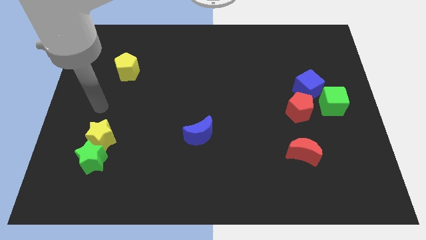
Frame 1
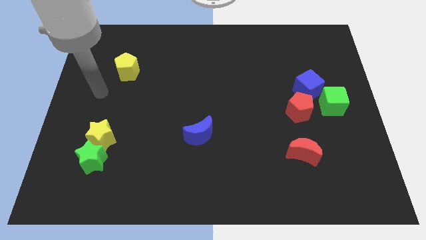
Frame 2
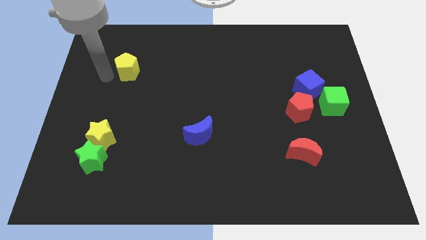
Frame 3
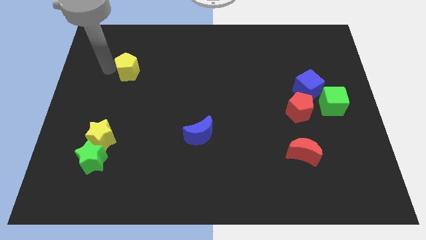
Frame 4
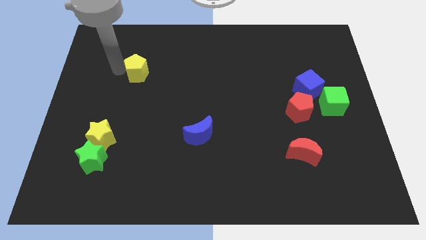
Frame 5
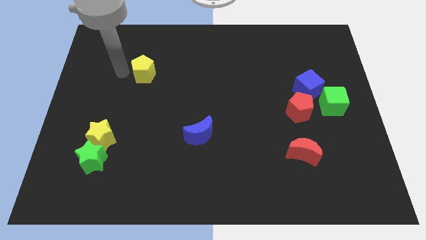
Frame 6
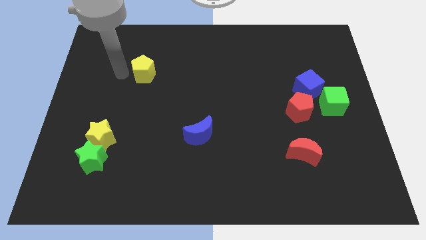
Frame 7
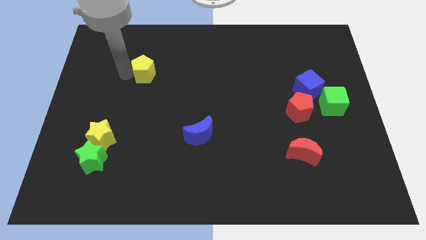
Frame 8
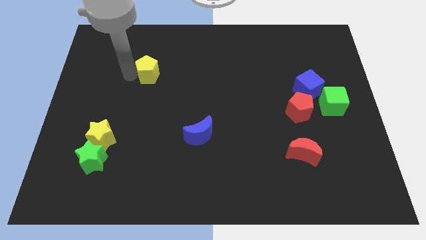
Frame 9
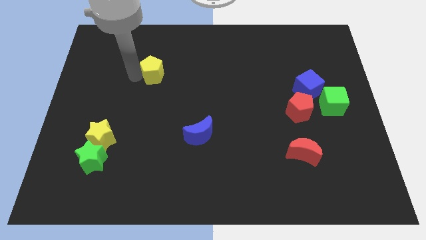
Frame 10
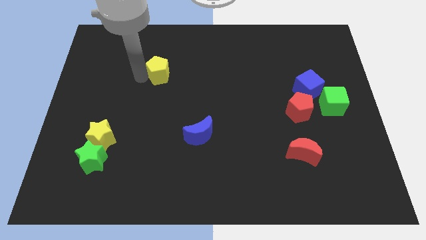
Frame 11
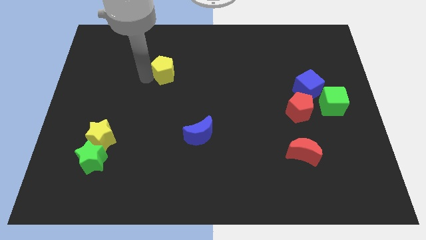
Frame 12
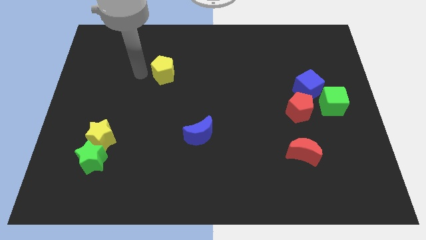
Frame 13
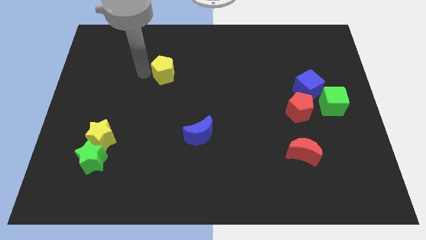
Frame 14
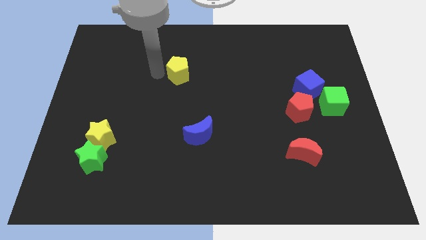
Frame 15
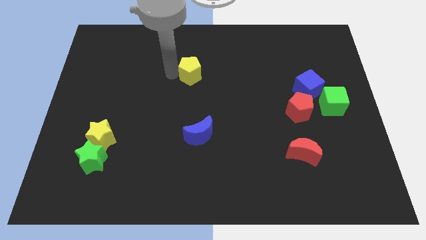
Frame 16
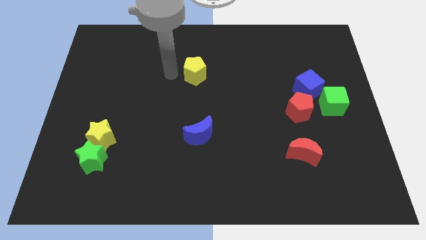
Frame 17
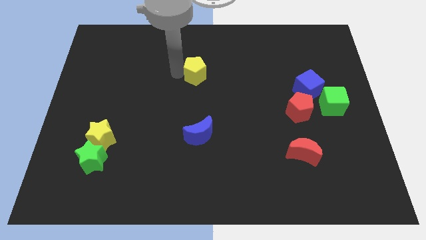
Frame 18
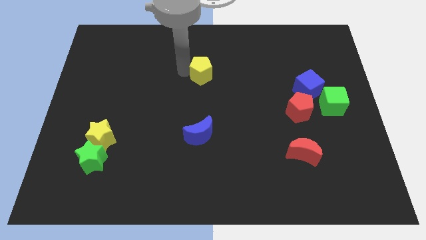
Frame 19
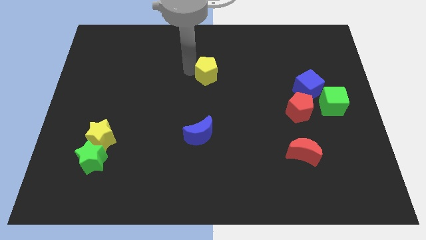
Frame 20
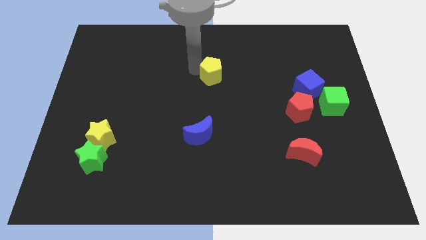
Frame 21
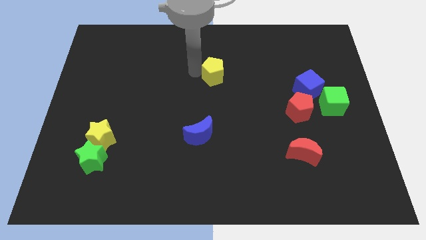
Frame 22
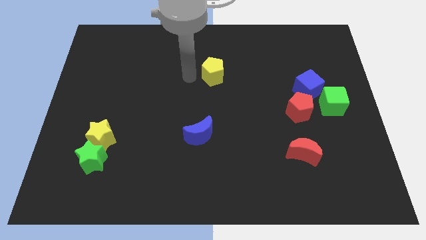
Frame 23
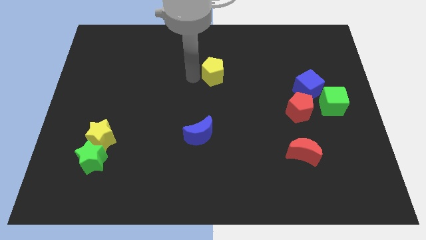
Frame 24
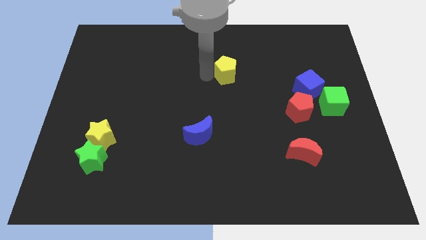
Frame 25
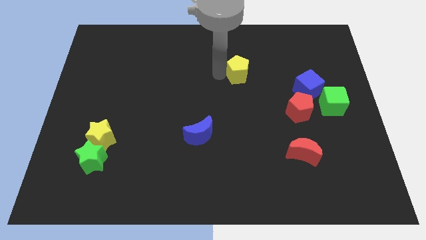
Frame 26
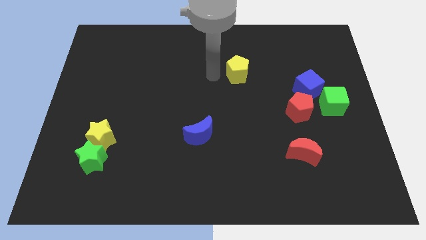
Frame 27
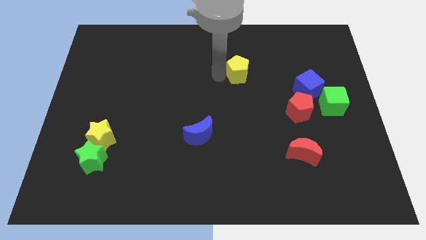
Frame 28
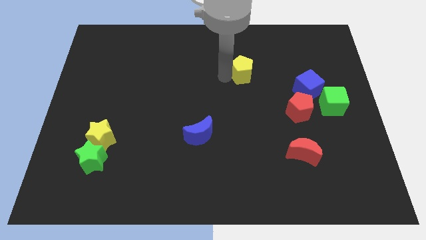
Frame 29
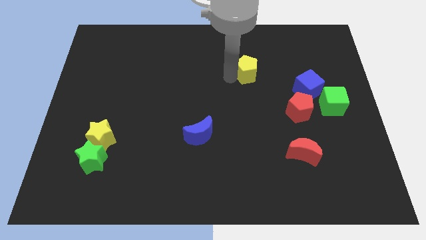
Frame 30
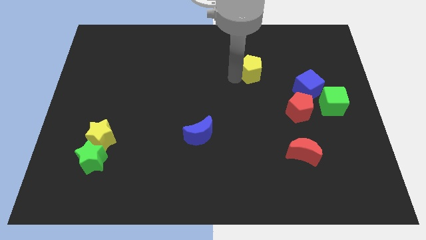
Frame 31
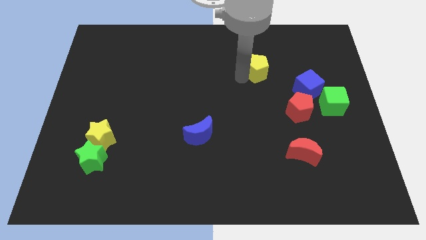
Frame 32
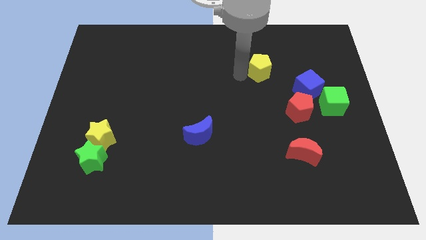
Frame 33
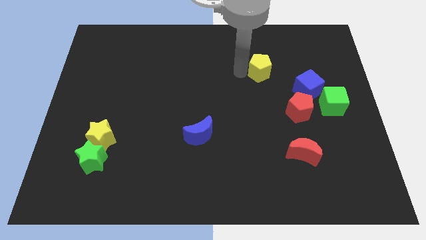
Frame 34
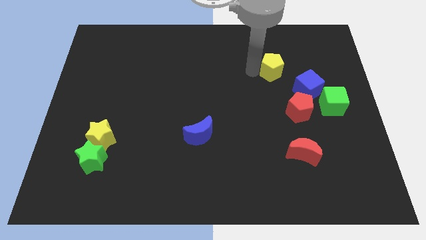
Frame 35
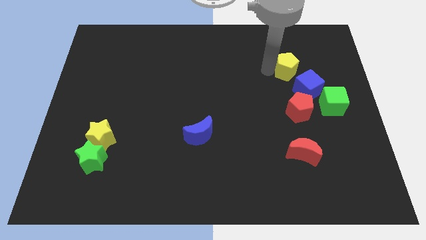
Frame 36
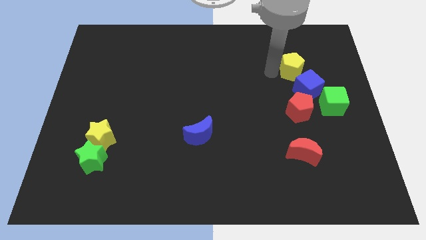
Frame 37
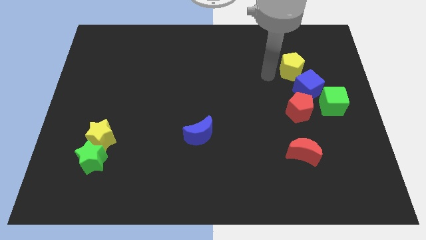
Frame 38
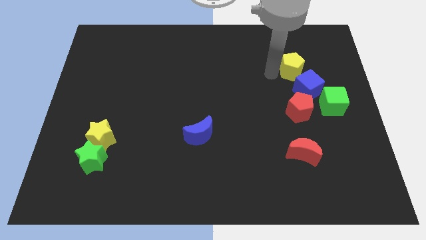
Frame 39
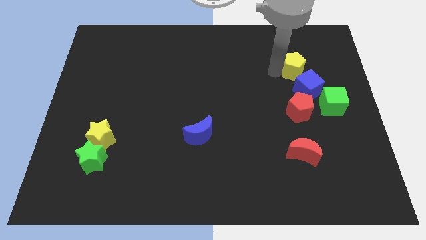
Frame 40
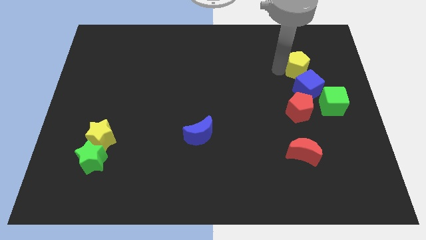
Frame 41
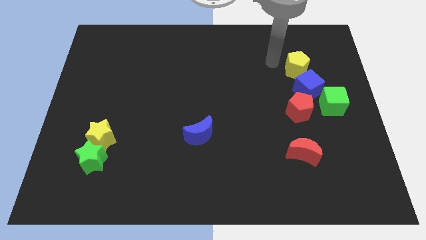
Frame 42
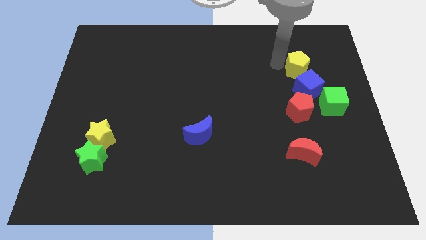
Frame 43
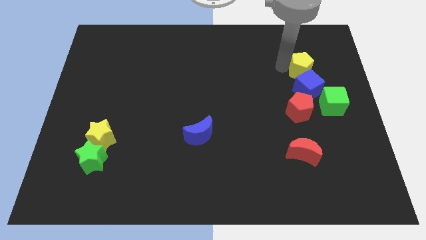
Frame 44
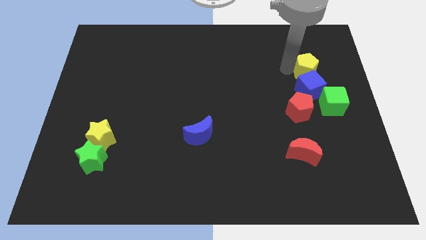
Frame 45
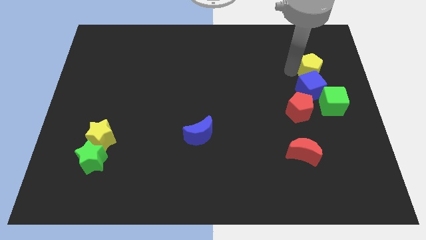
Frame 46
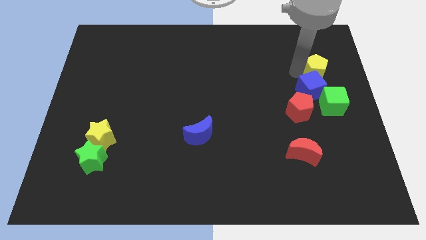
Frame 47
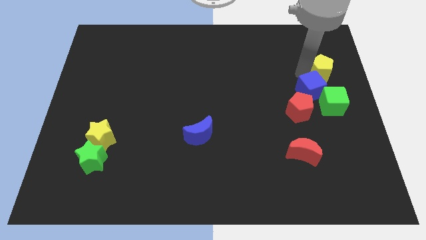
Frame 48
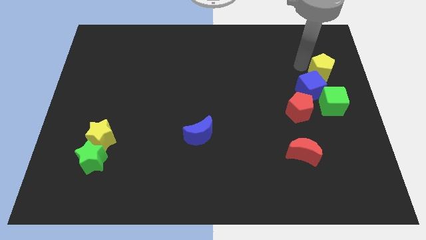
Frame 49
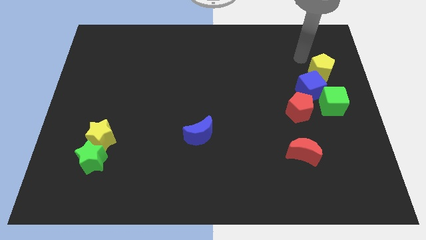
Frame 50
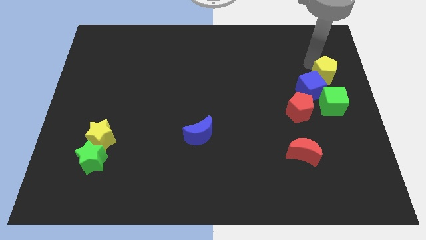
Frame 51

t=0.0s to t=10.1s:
move the yellow pentagon to the center right

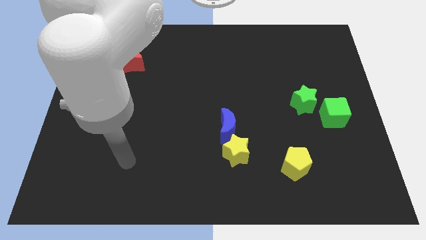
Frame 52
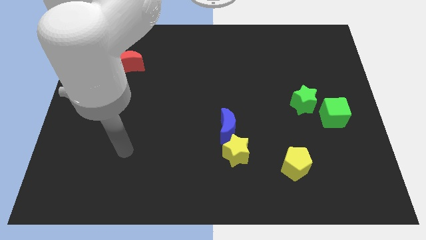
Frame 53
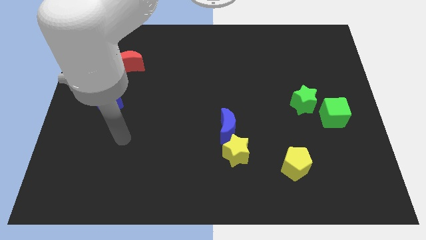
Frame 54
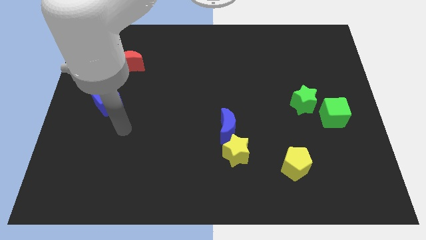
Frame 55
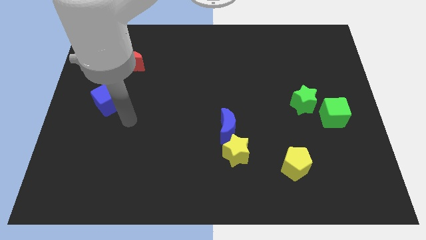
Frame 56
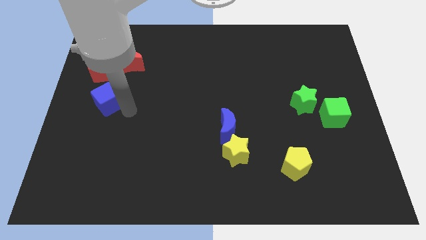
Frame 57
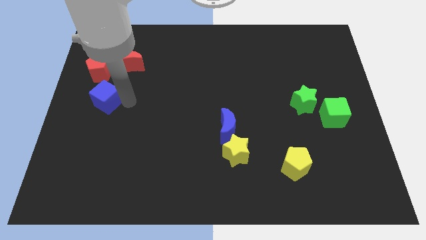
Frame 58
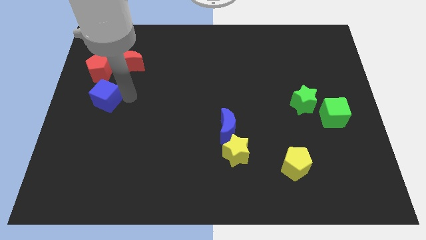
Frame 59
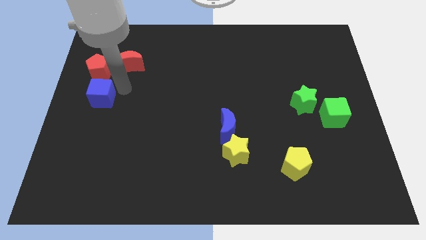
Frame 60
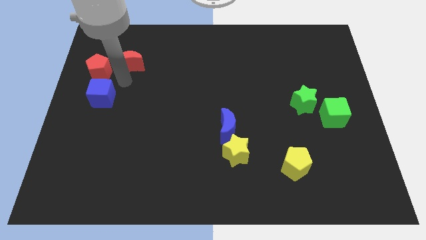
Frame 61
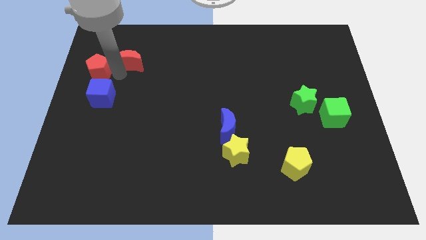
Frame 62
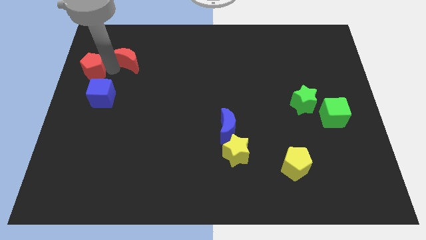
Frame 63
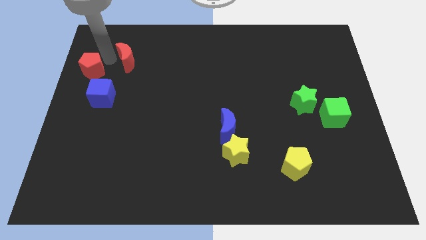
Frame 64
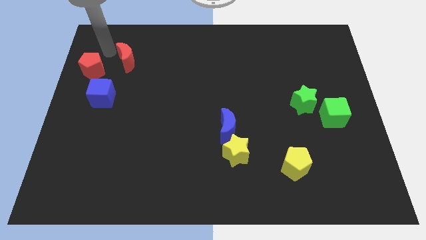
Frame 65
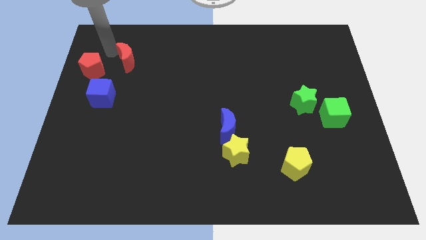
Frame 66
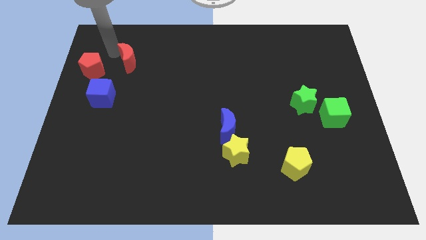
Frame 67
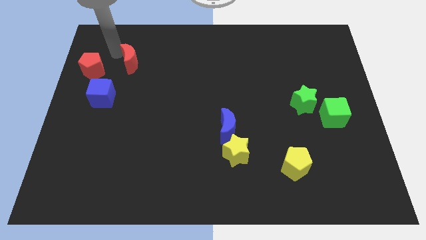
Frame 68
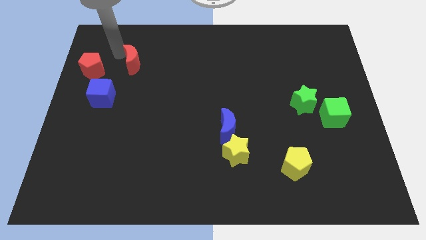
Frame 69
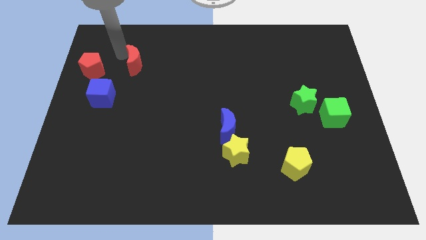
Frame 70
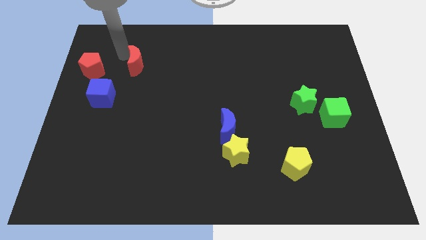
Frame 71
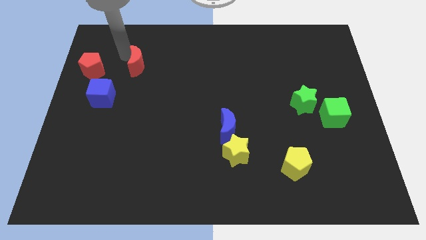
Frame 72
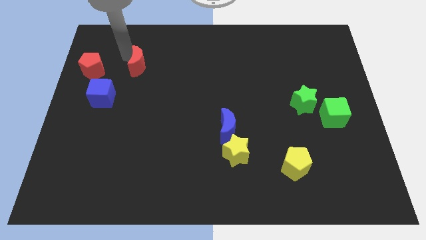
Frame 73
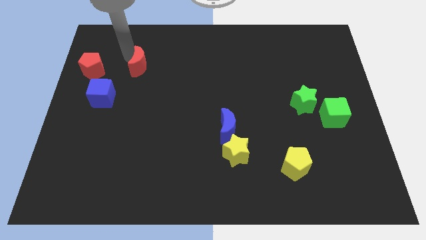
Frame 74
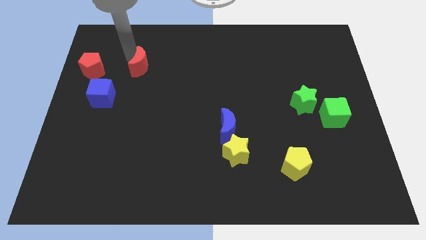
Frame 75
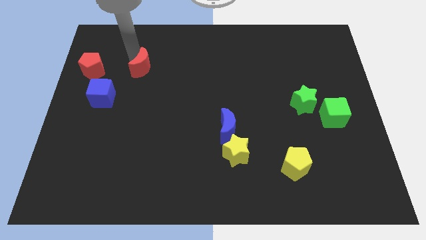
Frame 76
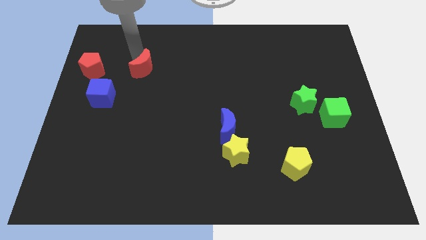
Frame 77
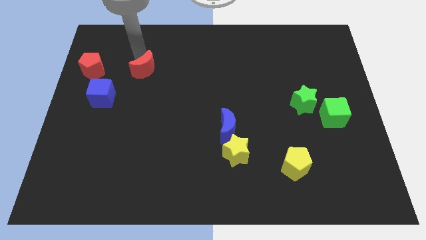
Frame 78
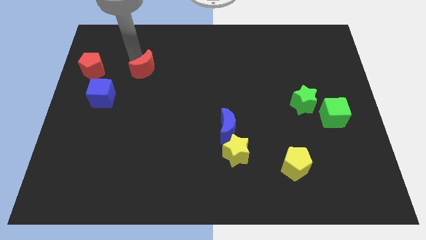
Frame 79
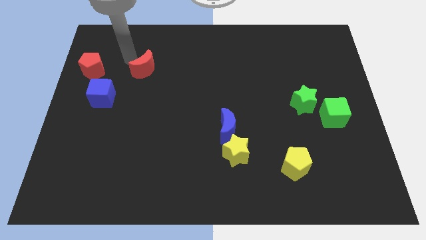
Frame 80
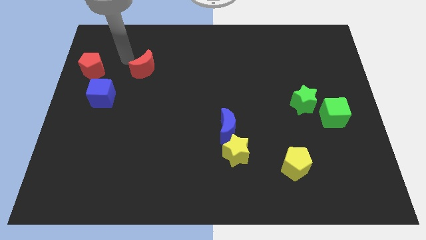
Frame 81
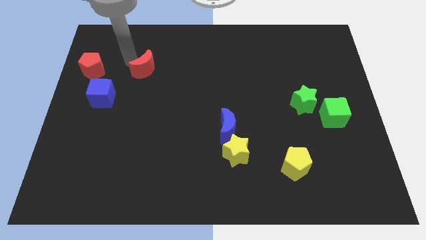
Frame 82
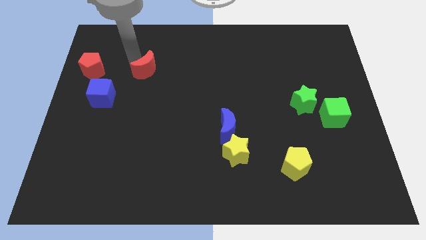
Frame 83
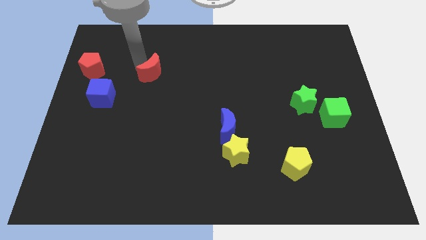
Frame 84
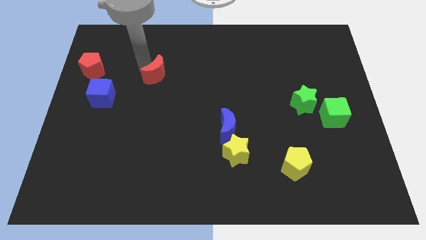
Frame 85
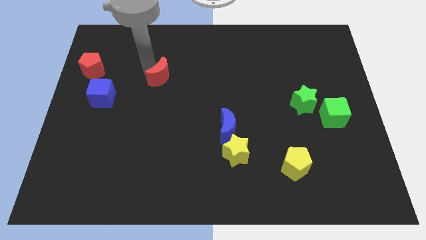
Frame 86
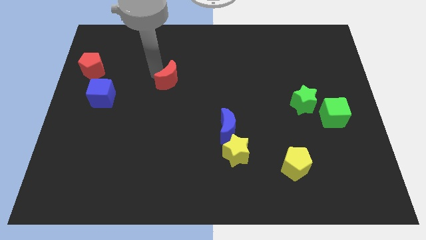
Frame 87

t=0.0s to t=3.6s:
slide the red moon to the center of the board
